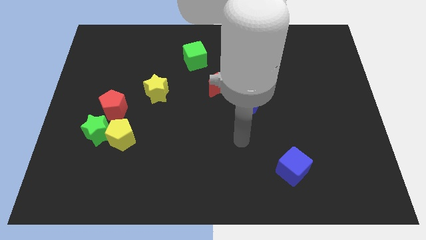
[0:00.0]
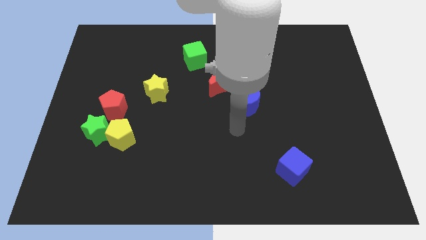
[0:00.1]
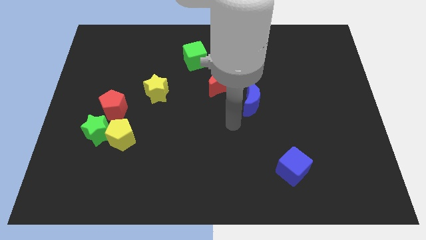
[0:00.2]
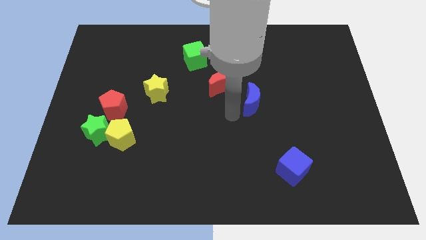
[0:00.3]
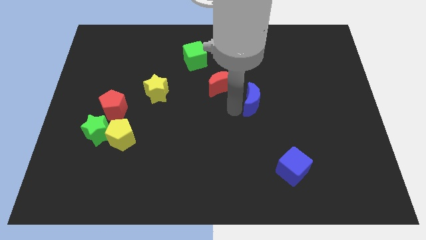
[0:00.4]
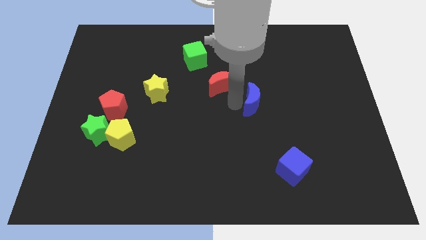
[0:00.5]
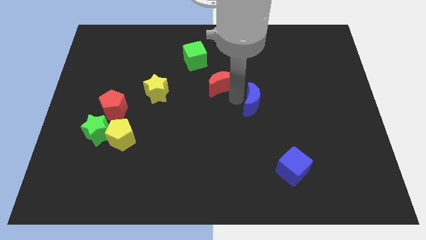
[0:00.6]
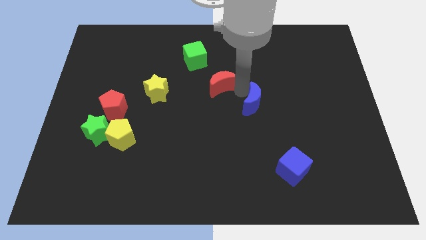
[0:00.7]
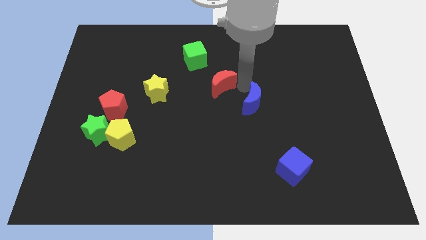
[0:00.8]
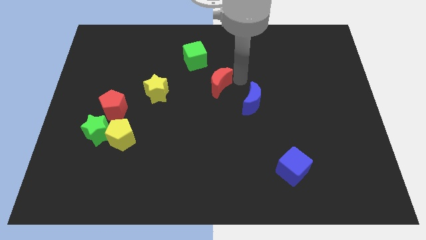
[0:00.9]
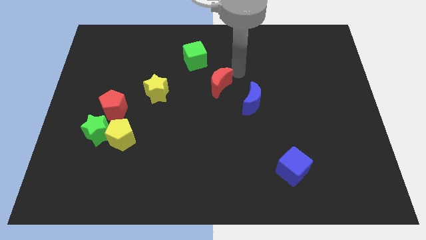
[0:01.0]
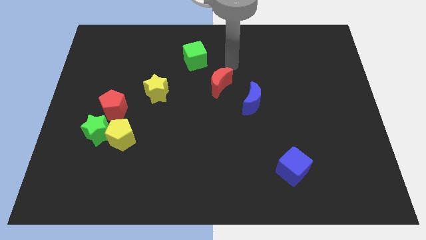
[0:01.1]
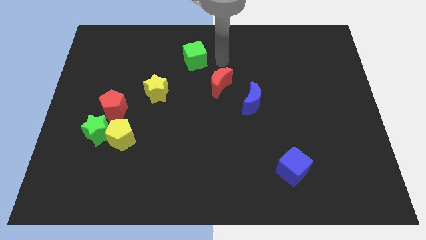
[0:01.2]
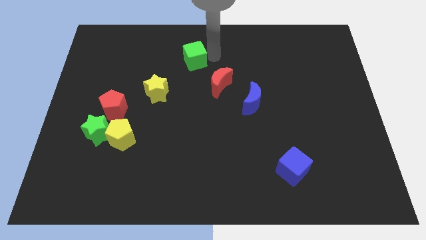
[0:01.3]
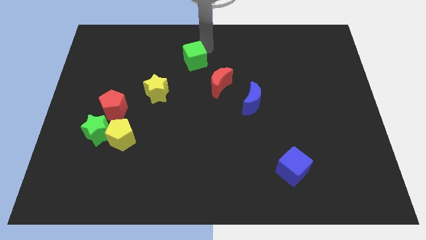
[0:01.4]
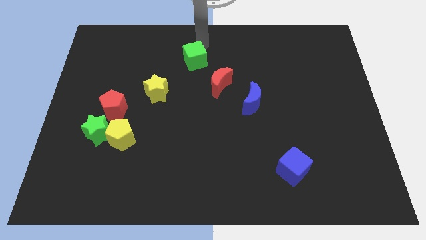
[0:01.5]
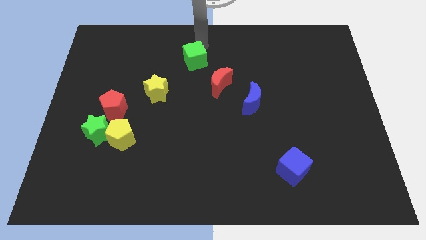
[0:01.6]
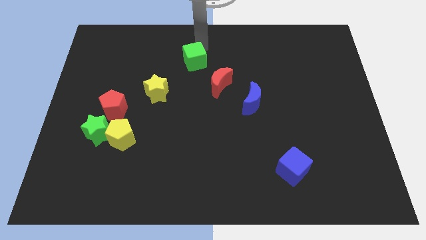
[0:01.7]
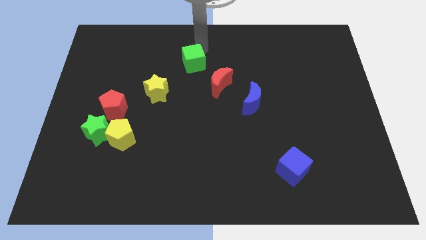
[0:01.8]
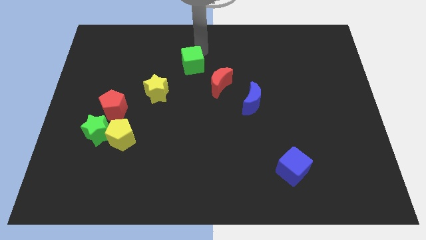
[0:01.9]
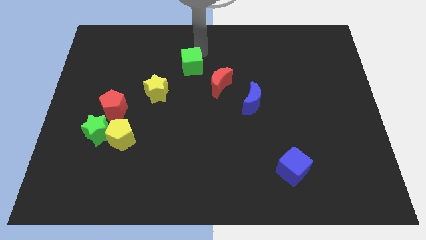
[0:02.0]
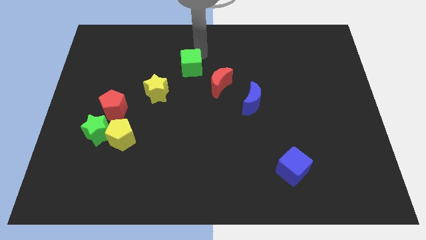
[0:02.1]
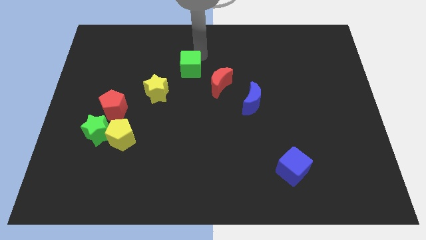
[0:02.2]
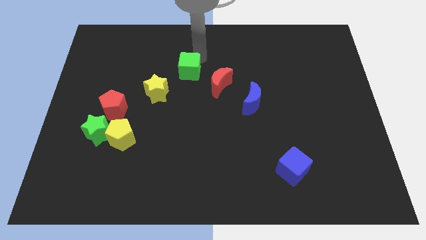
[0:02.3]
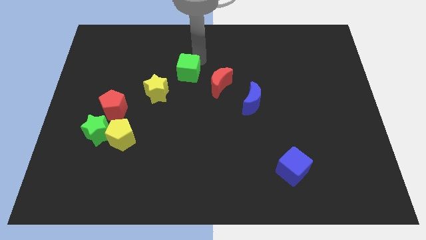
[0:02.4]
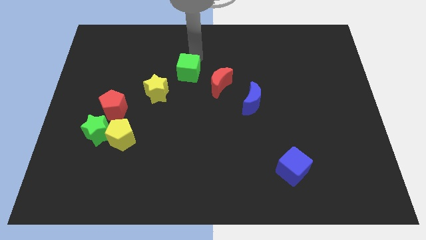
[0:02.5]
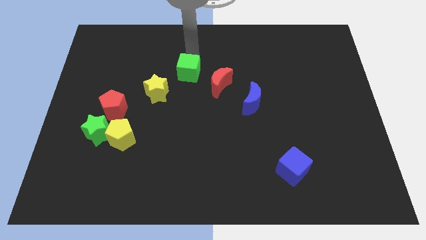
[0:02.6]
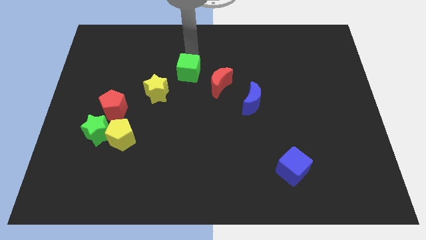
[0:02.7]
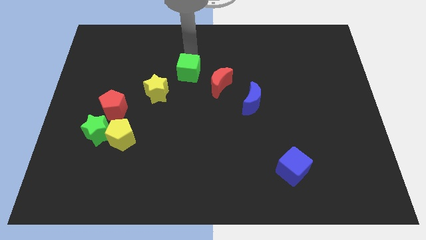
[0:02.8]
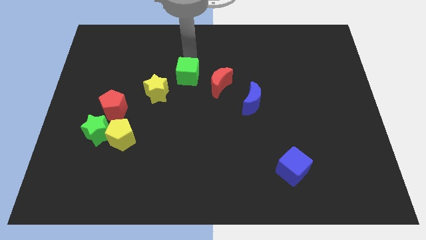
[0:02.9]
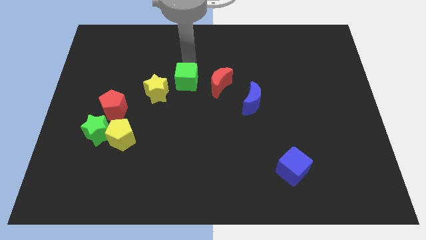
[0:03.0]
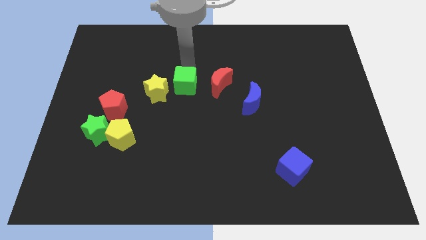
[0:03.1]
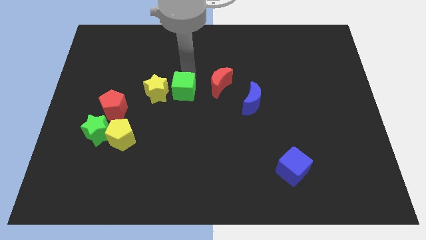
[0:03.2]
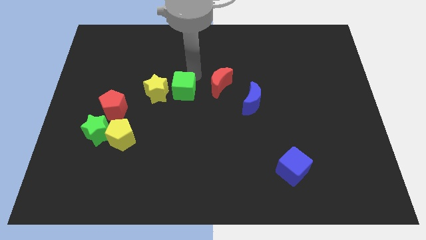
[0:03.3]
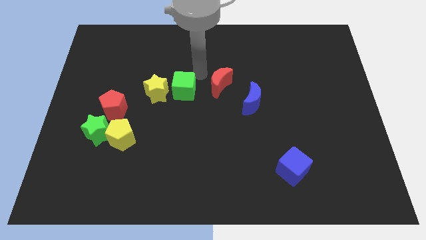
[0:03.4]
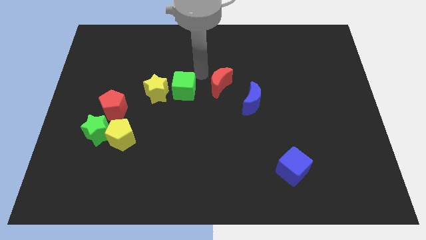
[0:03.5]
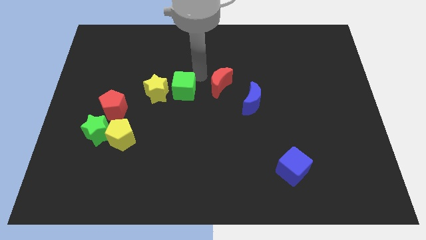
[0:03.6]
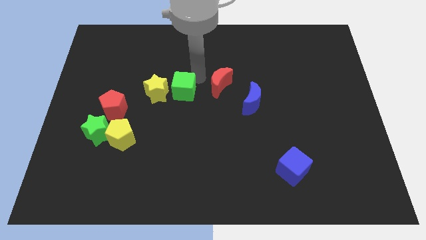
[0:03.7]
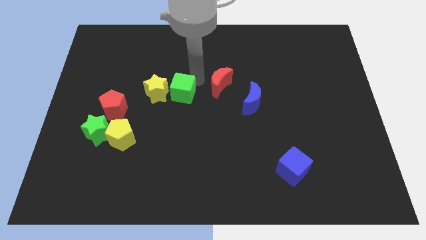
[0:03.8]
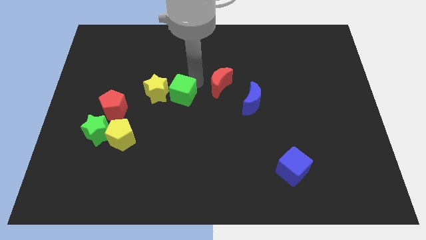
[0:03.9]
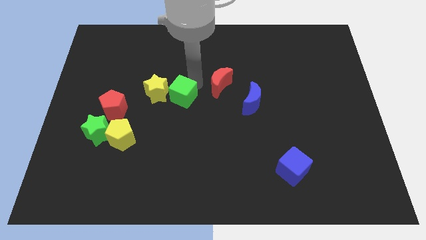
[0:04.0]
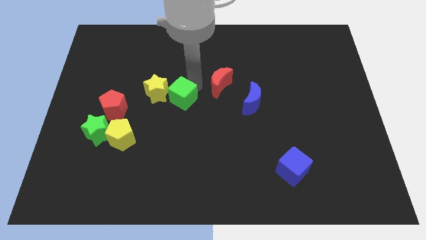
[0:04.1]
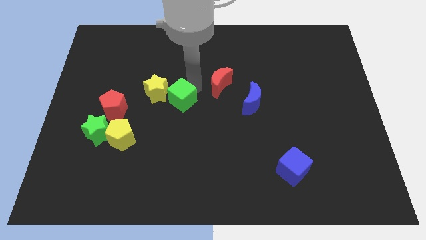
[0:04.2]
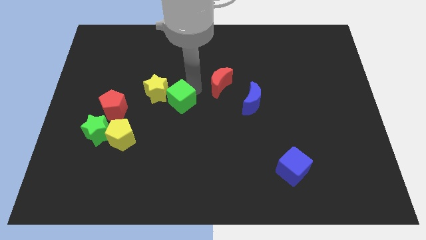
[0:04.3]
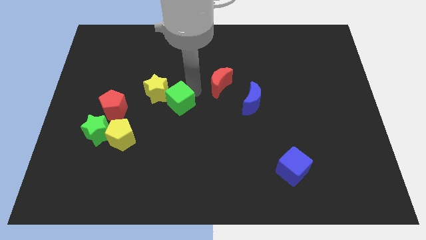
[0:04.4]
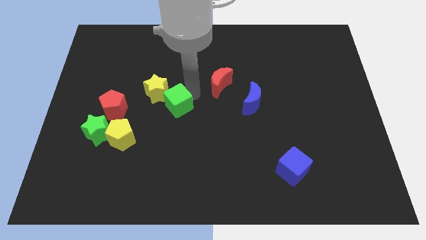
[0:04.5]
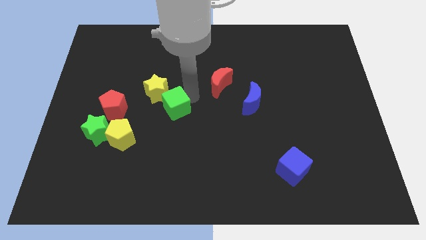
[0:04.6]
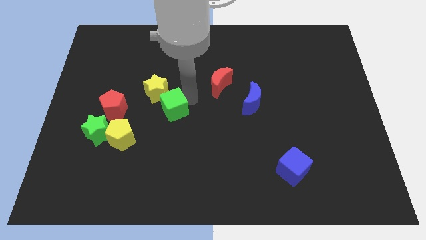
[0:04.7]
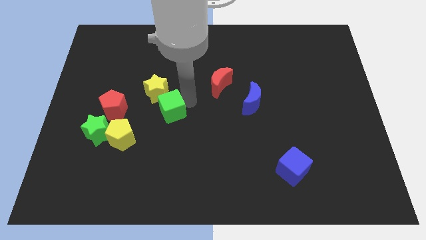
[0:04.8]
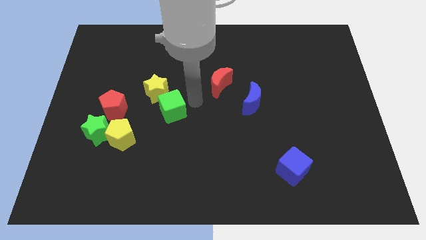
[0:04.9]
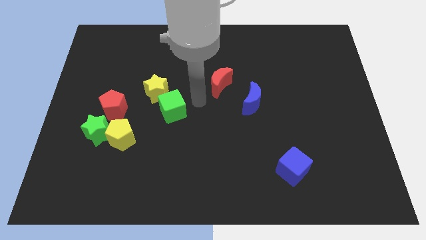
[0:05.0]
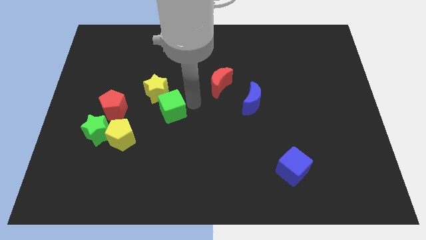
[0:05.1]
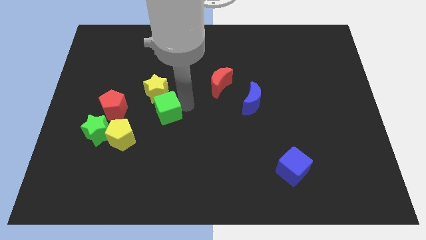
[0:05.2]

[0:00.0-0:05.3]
slide the green cube to the top right side of the yellow pentagon

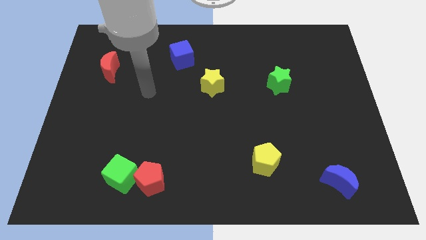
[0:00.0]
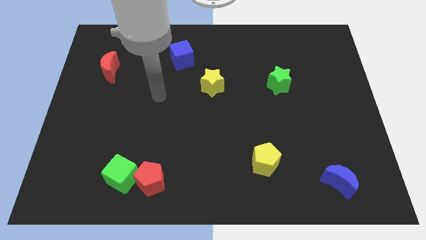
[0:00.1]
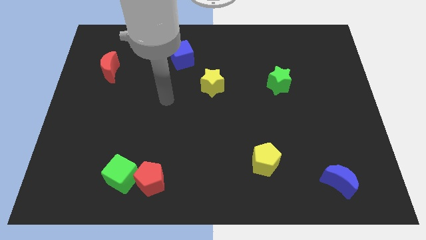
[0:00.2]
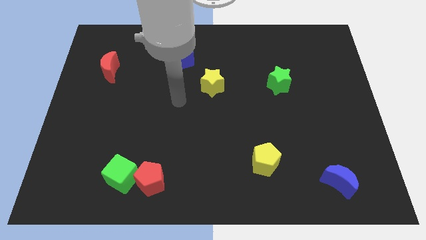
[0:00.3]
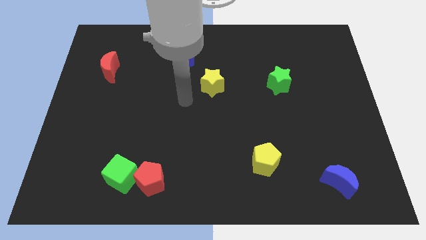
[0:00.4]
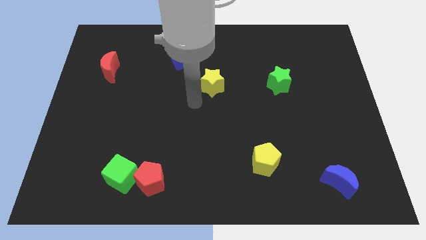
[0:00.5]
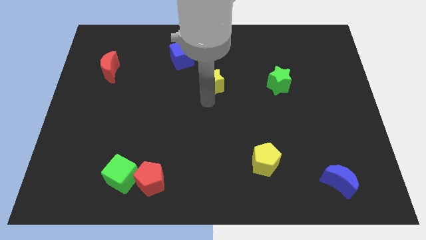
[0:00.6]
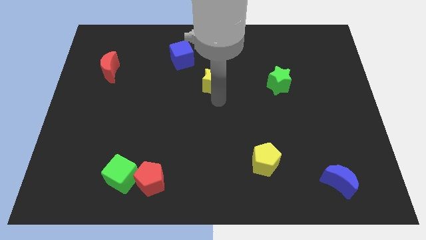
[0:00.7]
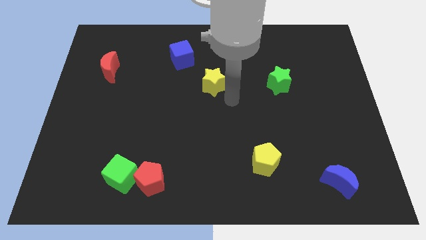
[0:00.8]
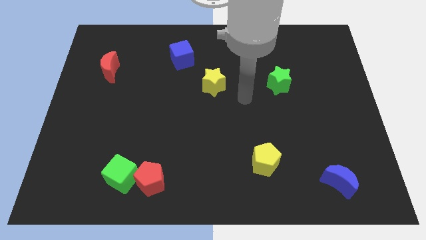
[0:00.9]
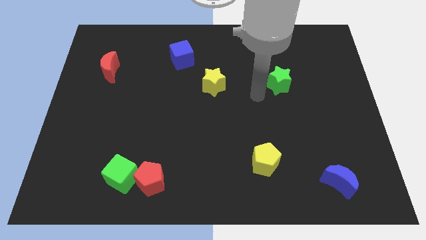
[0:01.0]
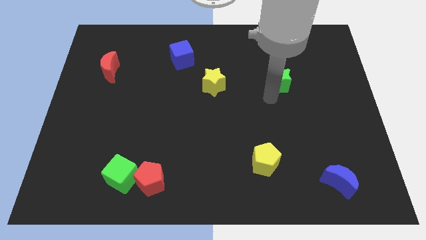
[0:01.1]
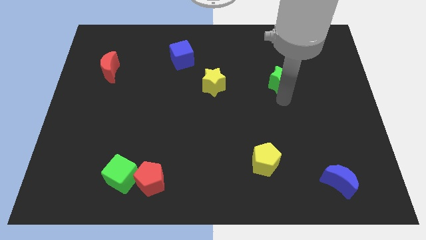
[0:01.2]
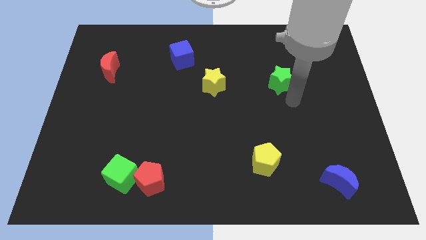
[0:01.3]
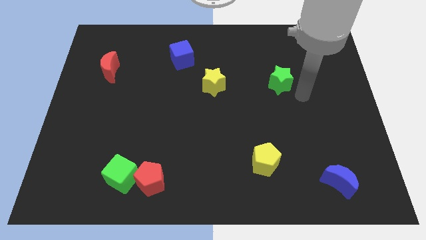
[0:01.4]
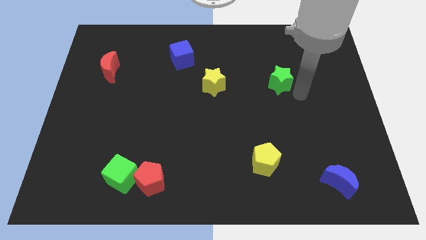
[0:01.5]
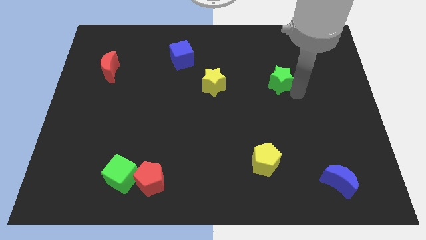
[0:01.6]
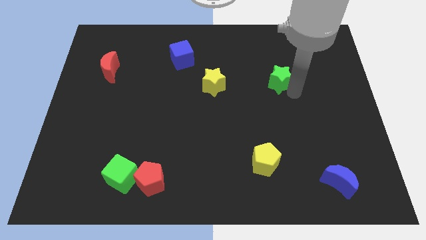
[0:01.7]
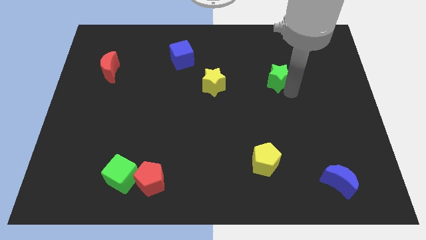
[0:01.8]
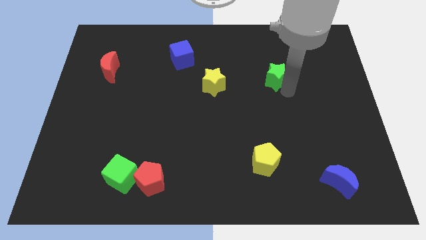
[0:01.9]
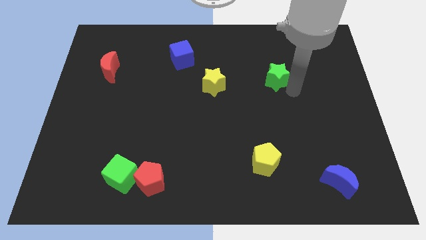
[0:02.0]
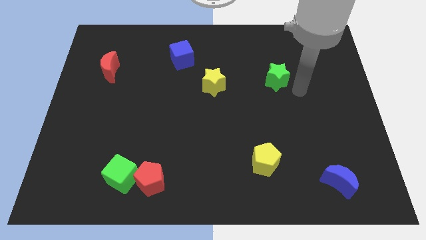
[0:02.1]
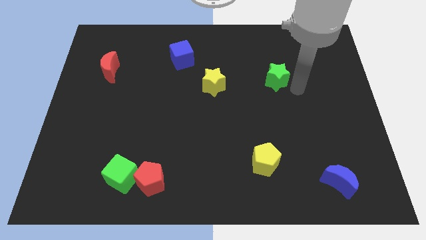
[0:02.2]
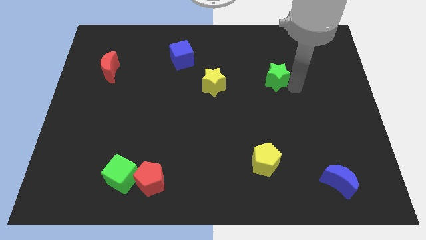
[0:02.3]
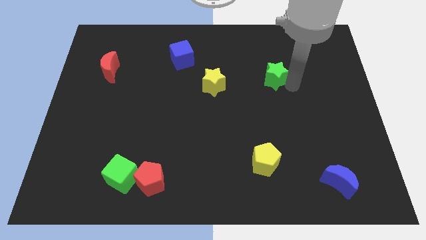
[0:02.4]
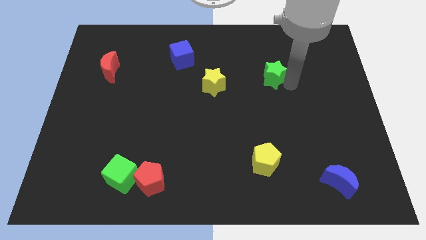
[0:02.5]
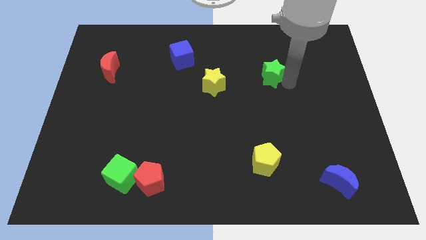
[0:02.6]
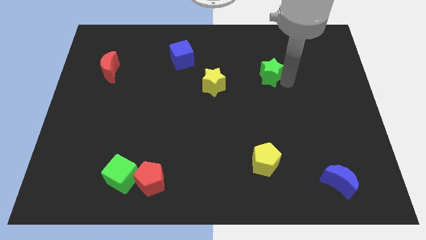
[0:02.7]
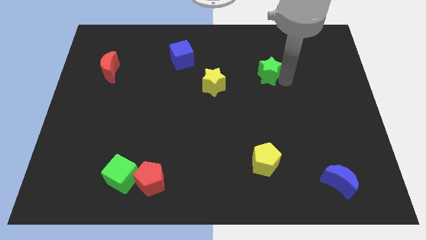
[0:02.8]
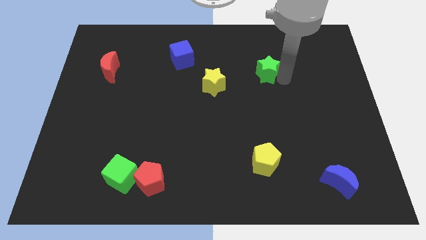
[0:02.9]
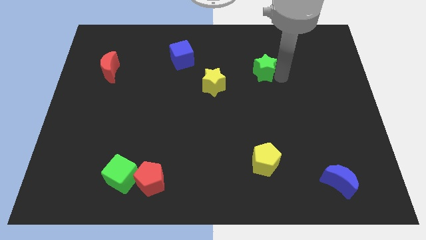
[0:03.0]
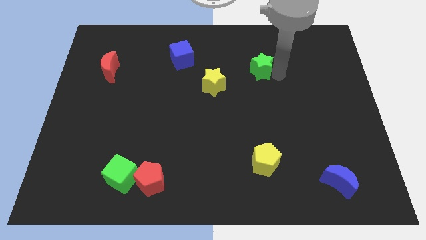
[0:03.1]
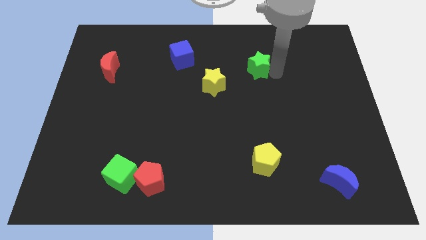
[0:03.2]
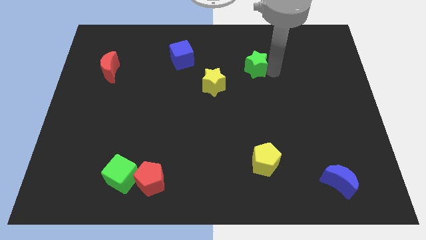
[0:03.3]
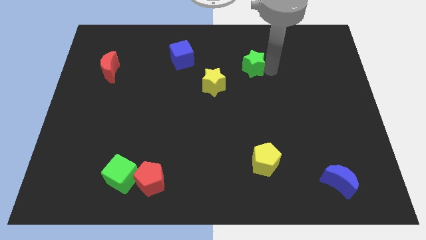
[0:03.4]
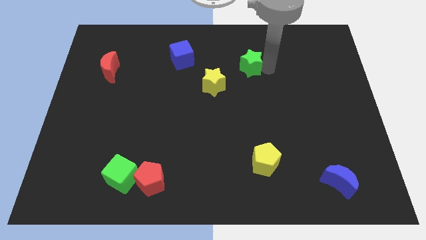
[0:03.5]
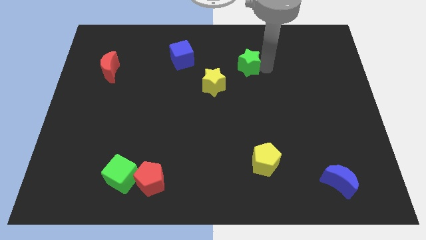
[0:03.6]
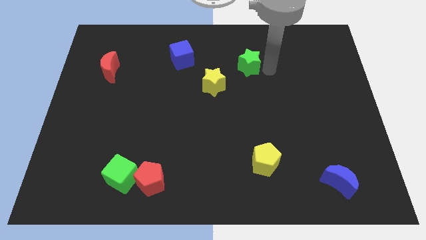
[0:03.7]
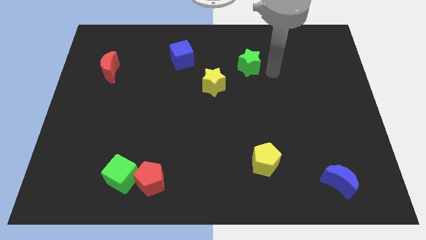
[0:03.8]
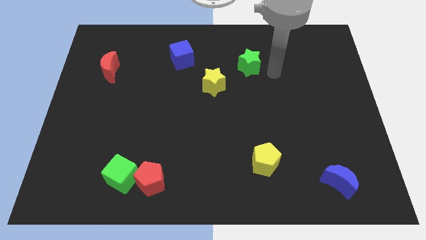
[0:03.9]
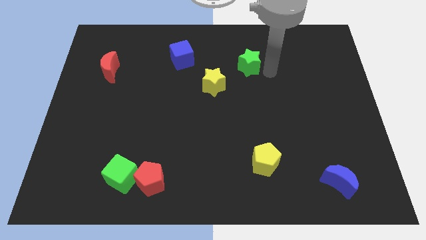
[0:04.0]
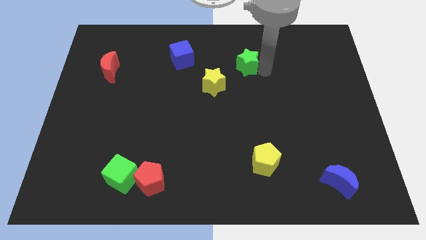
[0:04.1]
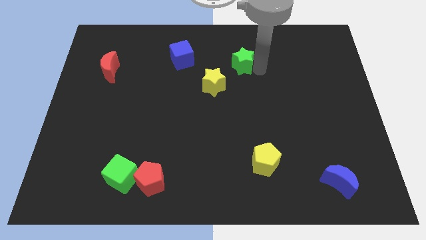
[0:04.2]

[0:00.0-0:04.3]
slide the green star to the right side of the blue cube
